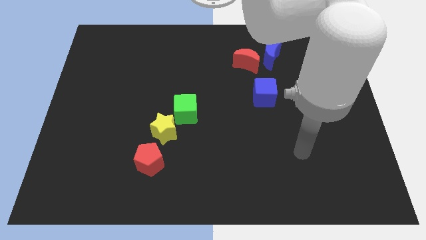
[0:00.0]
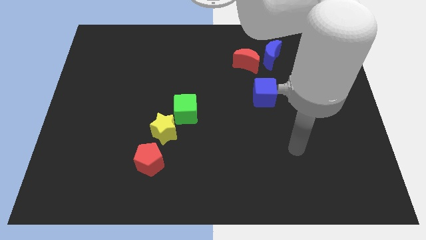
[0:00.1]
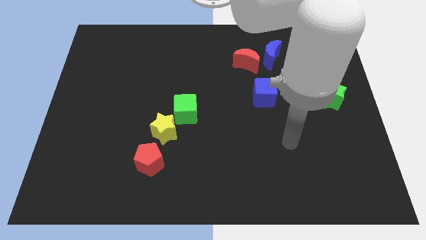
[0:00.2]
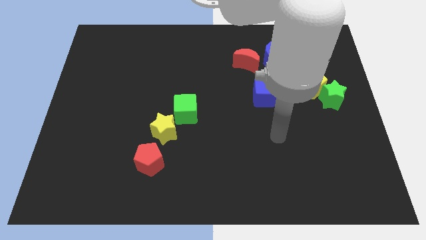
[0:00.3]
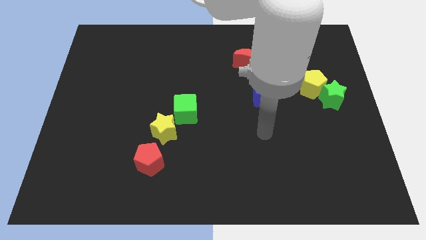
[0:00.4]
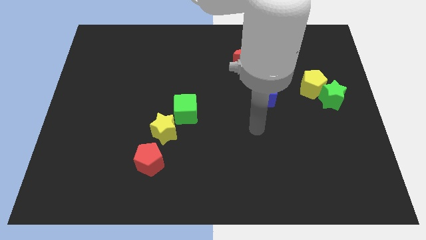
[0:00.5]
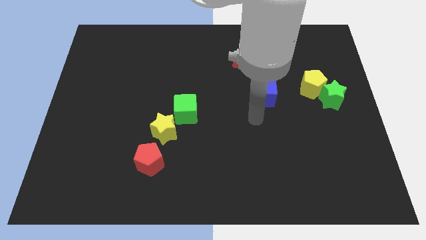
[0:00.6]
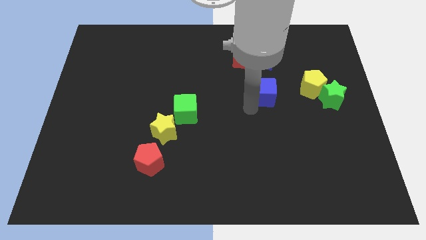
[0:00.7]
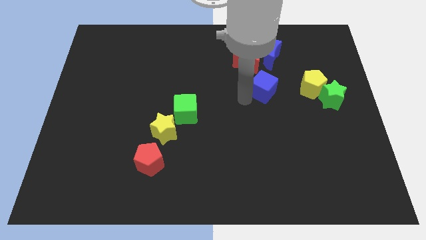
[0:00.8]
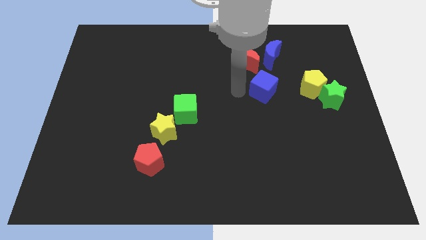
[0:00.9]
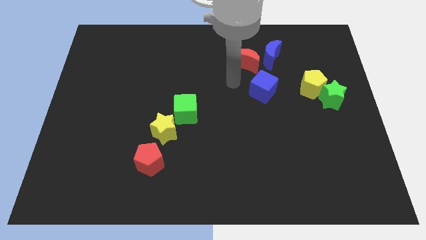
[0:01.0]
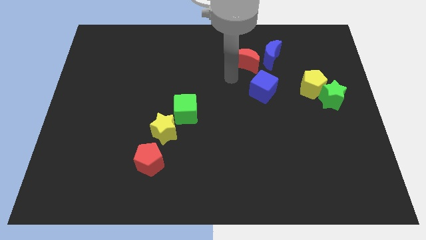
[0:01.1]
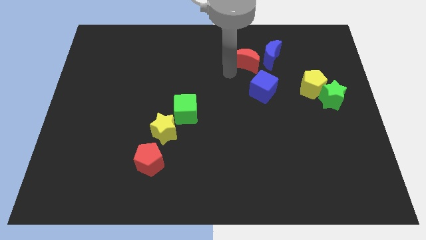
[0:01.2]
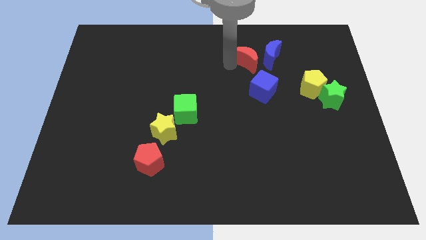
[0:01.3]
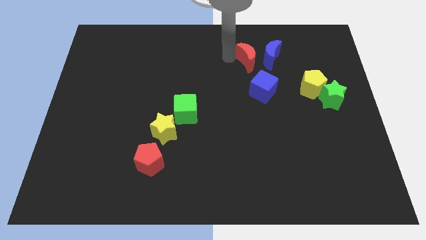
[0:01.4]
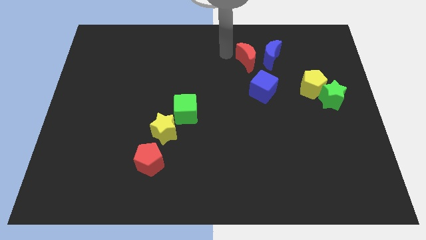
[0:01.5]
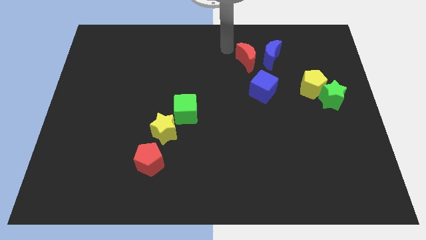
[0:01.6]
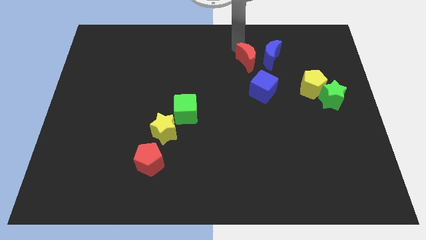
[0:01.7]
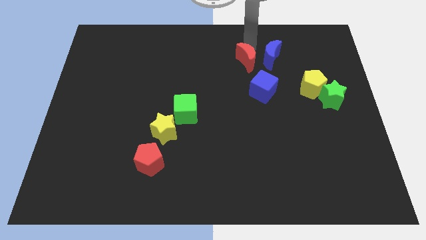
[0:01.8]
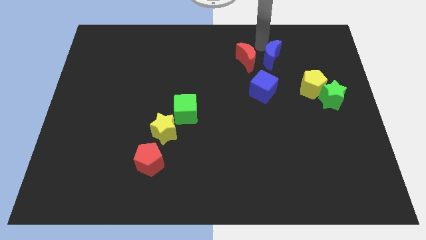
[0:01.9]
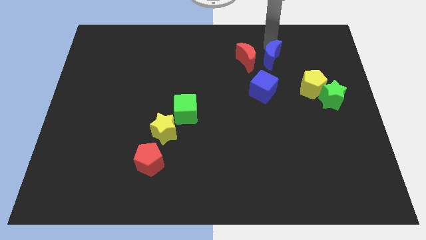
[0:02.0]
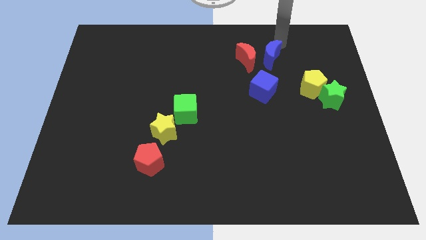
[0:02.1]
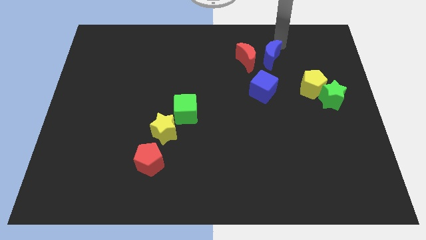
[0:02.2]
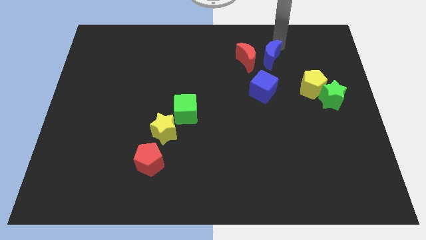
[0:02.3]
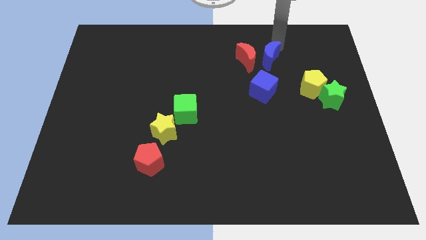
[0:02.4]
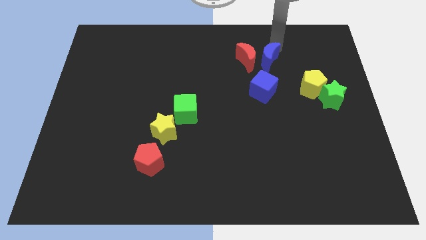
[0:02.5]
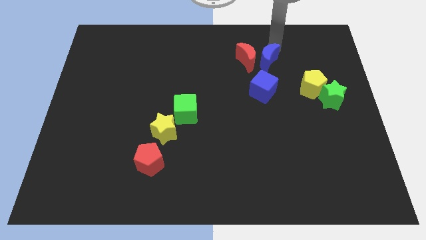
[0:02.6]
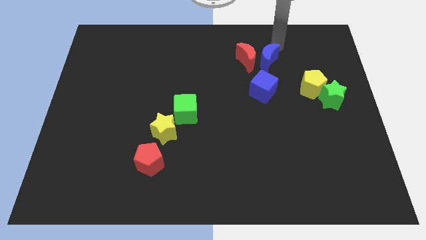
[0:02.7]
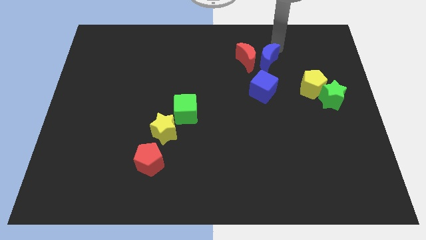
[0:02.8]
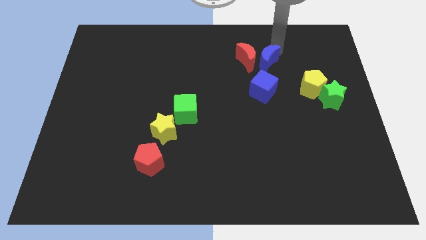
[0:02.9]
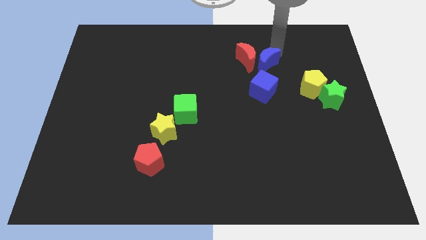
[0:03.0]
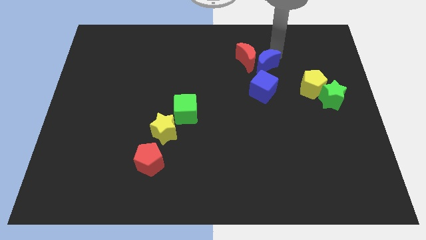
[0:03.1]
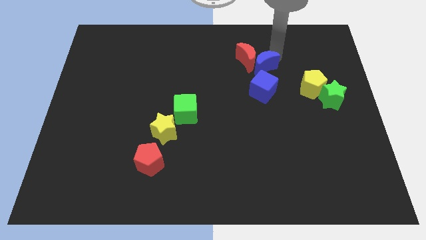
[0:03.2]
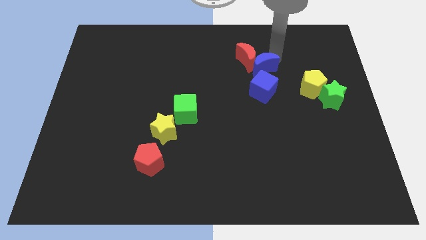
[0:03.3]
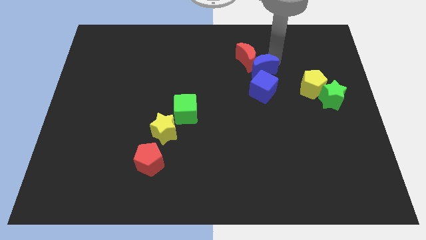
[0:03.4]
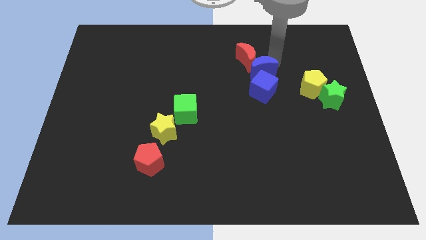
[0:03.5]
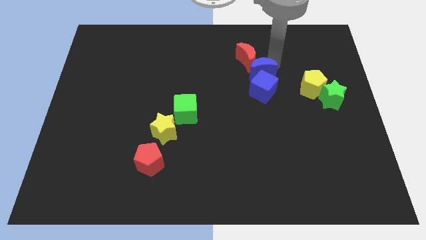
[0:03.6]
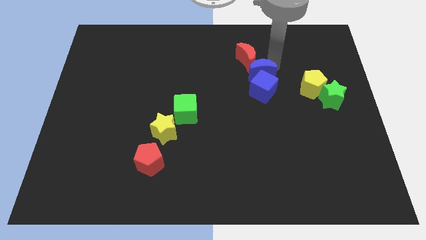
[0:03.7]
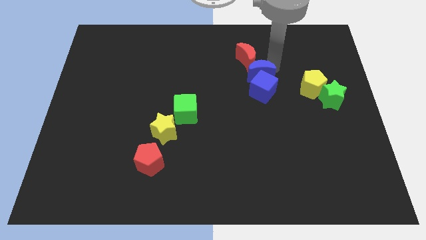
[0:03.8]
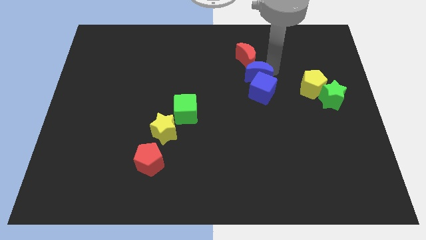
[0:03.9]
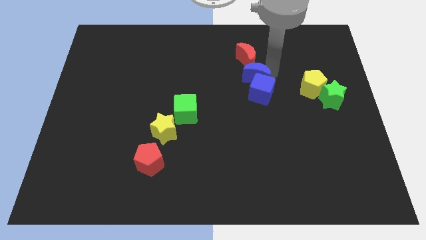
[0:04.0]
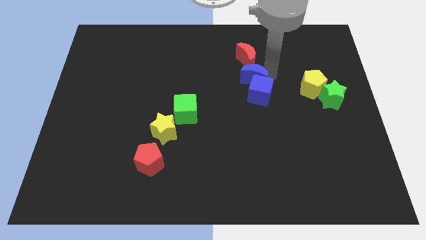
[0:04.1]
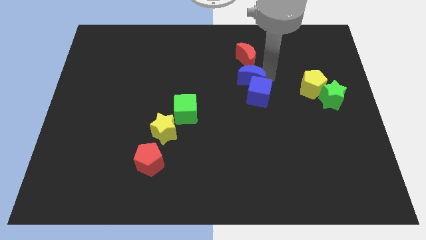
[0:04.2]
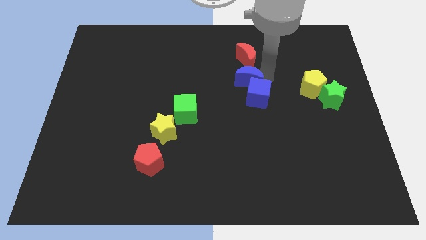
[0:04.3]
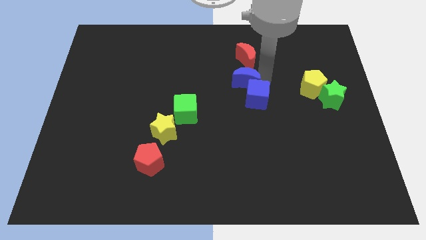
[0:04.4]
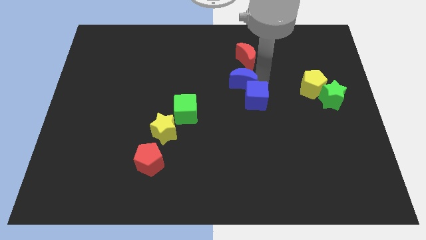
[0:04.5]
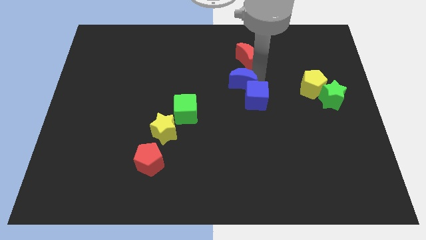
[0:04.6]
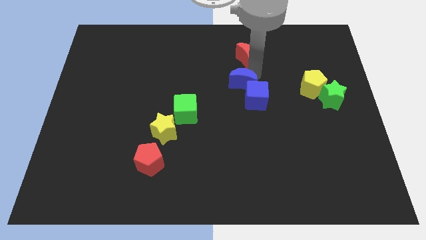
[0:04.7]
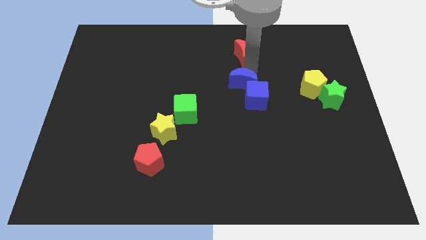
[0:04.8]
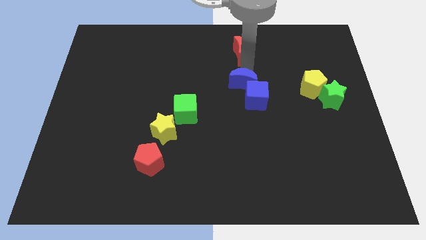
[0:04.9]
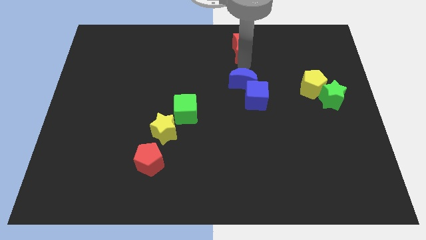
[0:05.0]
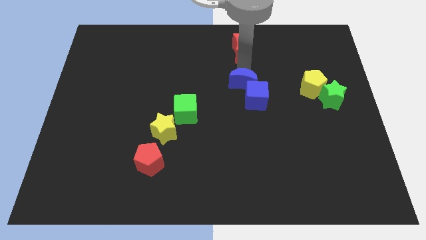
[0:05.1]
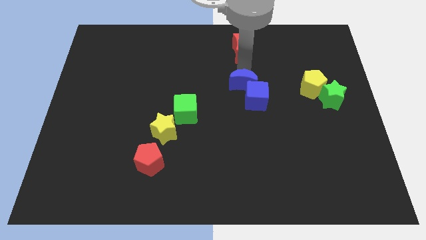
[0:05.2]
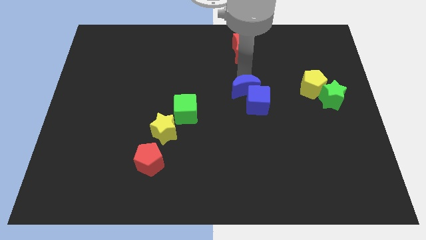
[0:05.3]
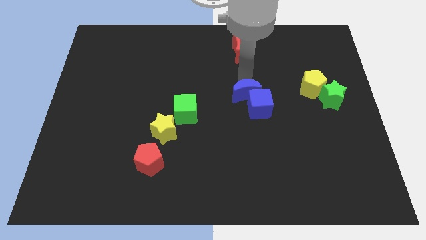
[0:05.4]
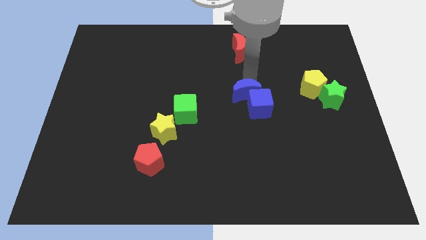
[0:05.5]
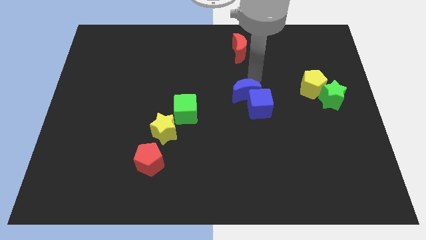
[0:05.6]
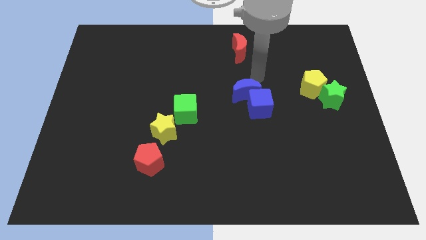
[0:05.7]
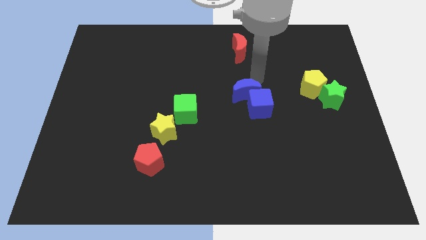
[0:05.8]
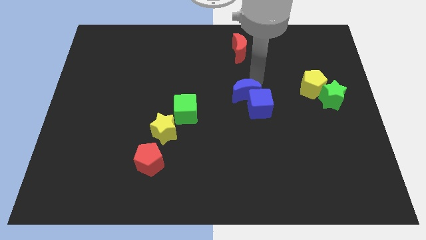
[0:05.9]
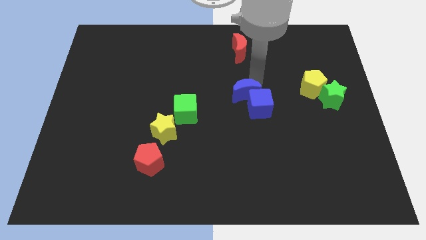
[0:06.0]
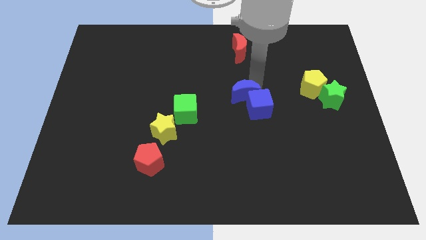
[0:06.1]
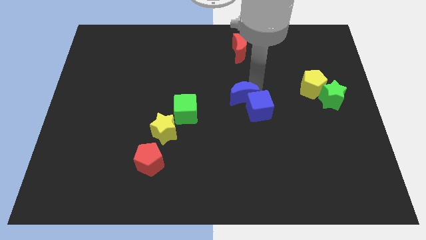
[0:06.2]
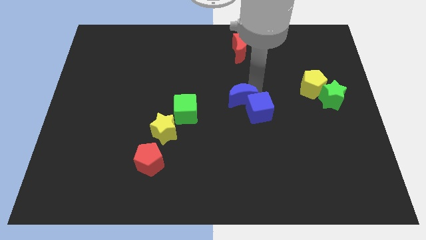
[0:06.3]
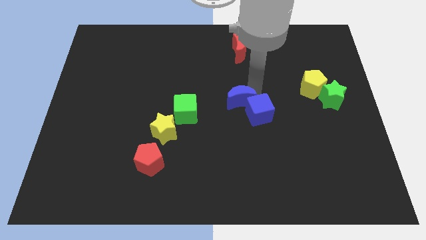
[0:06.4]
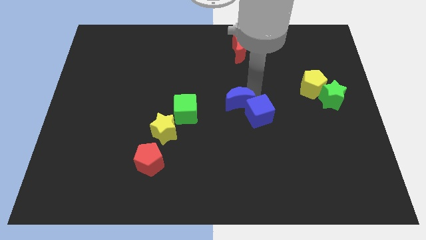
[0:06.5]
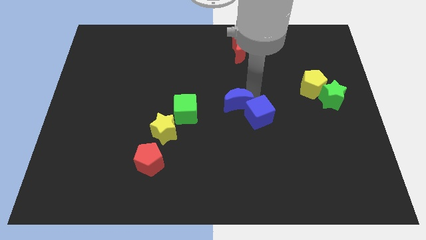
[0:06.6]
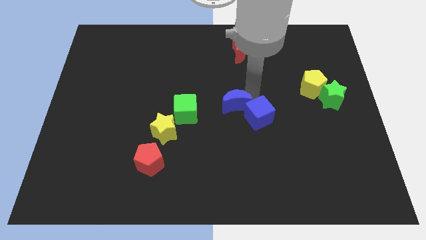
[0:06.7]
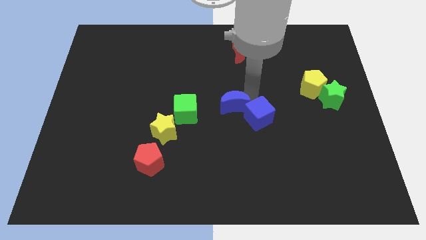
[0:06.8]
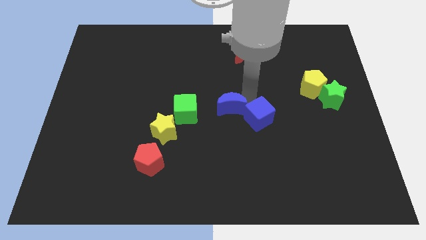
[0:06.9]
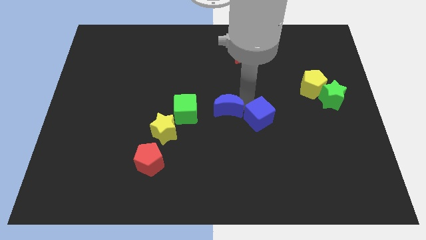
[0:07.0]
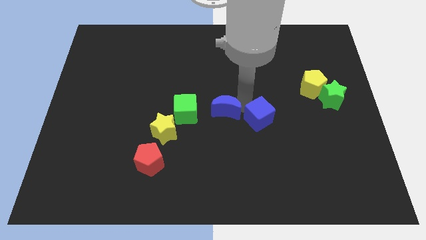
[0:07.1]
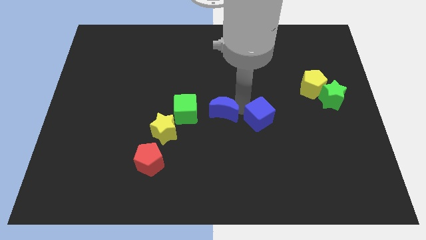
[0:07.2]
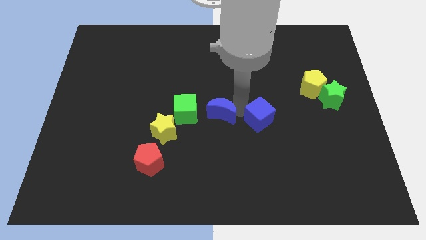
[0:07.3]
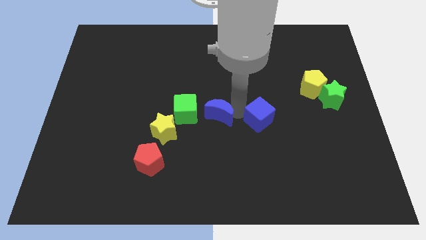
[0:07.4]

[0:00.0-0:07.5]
move the blue moon right of the yellow star
